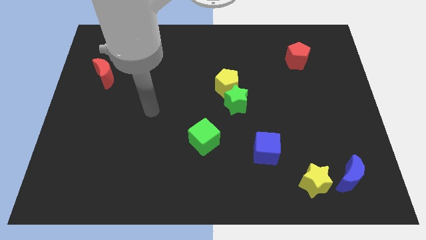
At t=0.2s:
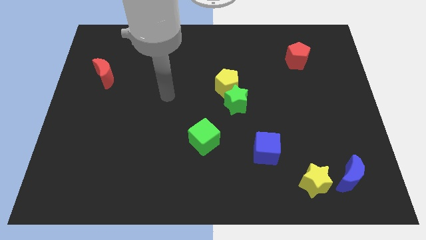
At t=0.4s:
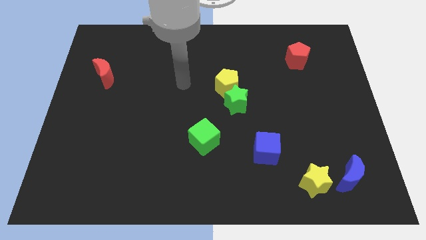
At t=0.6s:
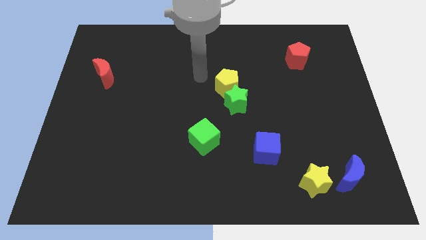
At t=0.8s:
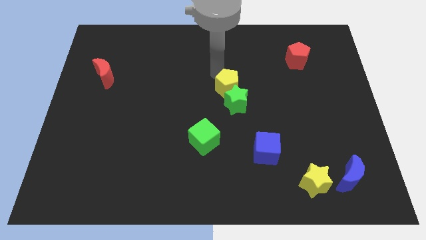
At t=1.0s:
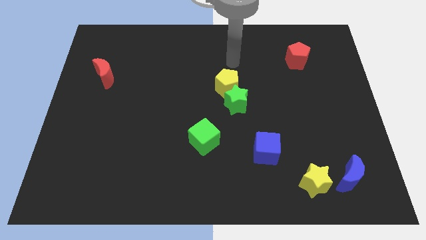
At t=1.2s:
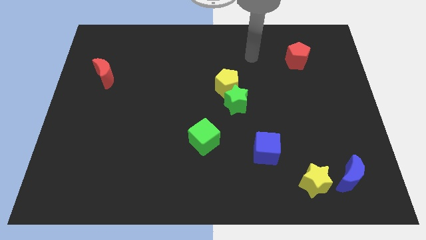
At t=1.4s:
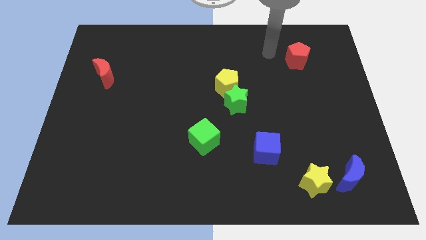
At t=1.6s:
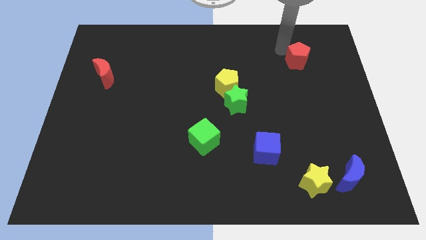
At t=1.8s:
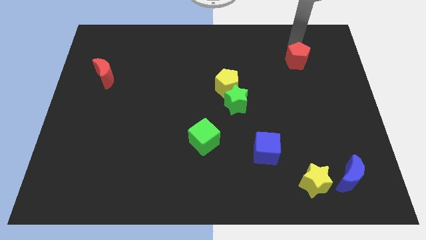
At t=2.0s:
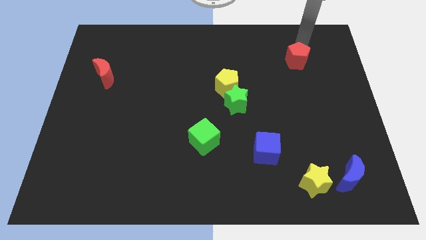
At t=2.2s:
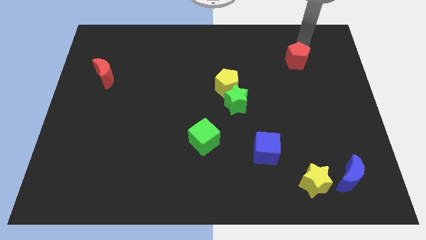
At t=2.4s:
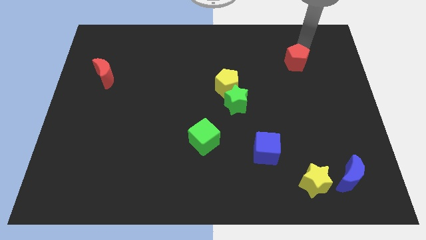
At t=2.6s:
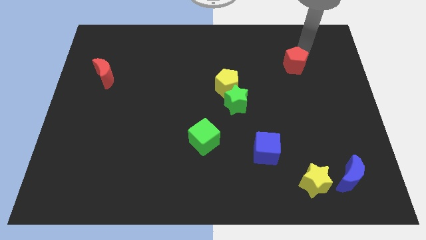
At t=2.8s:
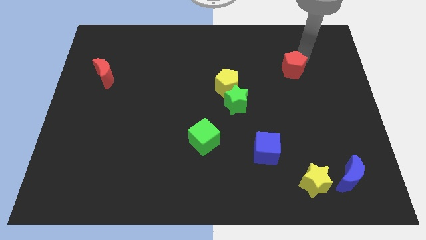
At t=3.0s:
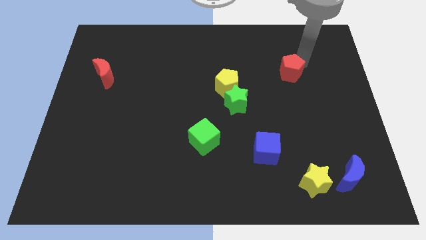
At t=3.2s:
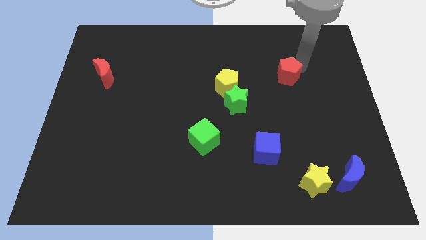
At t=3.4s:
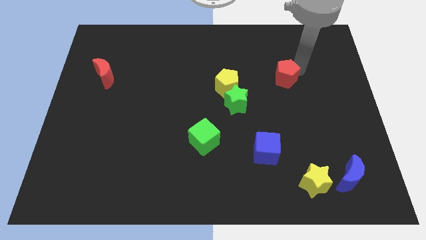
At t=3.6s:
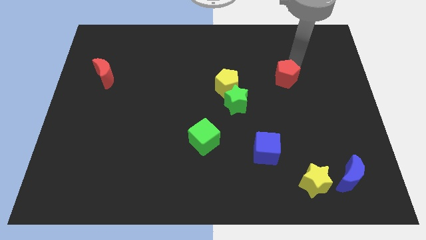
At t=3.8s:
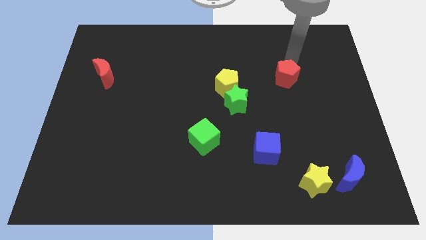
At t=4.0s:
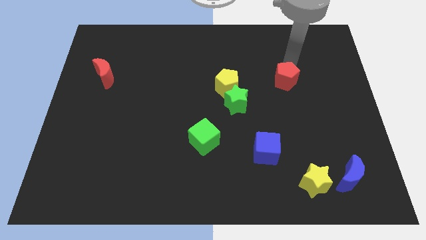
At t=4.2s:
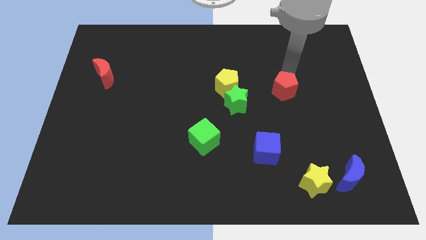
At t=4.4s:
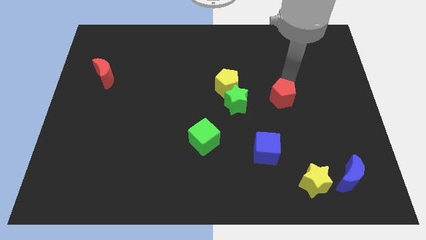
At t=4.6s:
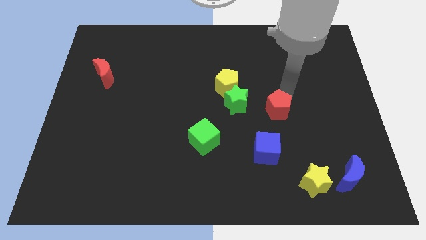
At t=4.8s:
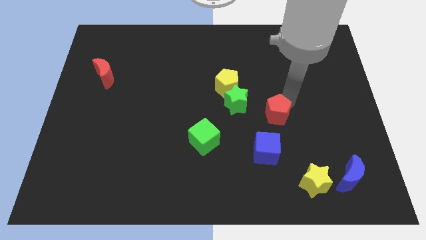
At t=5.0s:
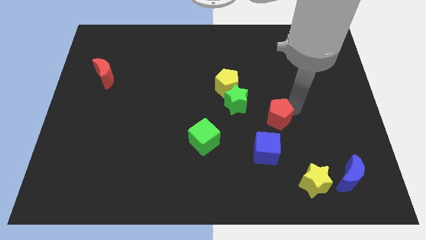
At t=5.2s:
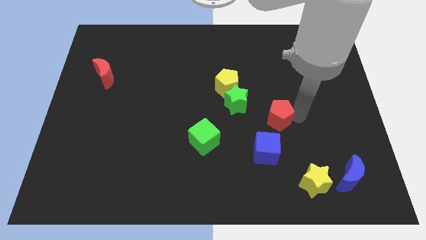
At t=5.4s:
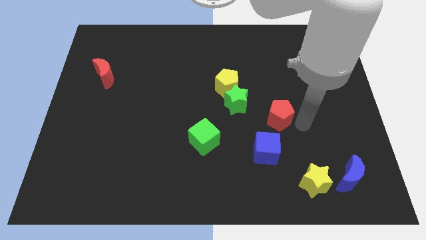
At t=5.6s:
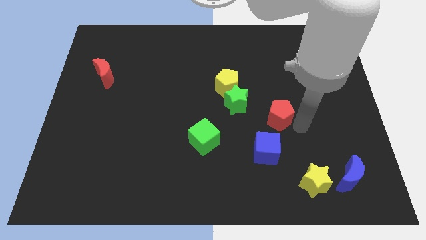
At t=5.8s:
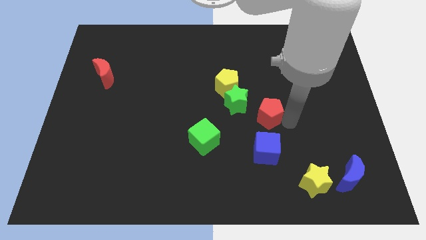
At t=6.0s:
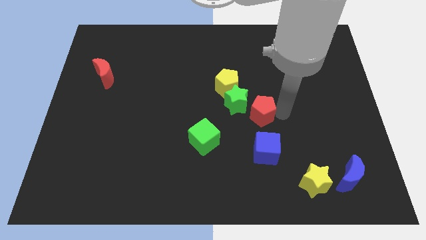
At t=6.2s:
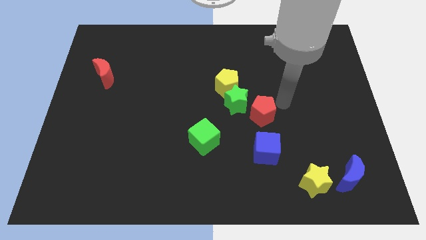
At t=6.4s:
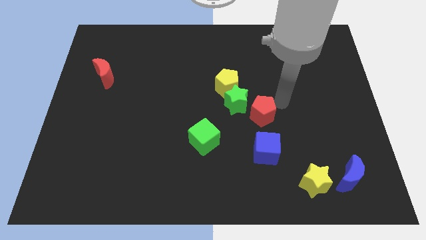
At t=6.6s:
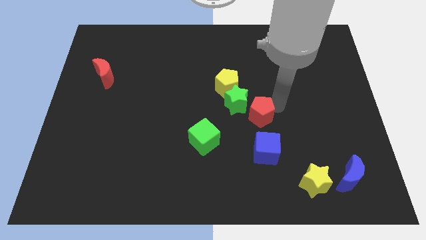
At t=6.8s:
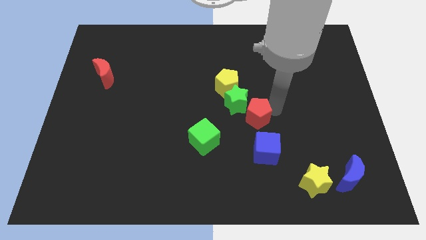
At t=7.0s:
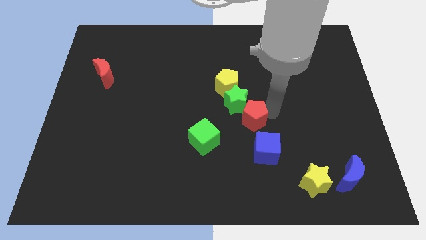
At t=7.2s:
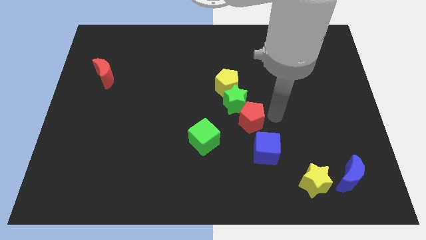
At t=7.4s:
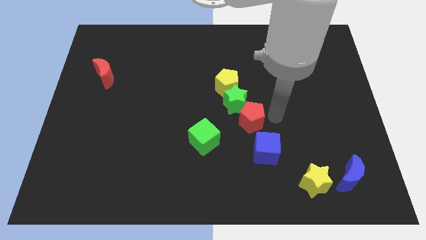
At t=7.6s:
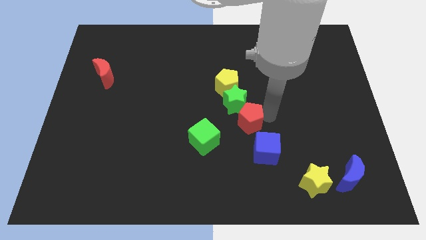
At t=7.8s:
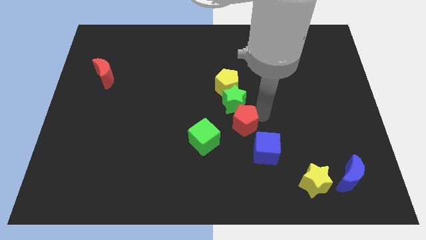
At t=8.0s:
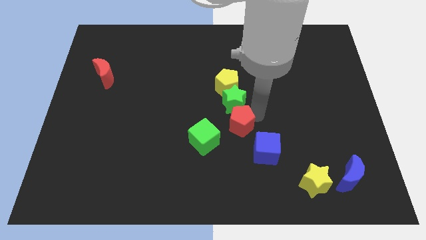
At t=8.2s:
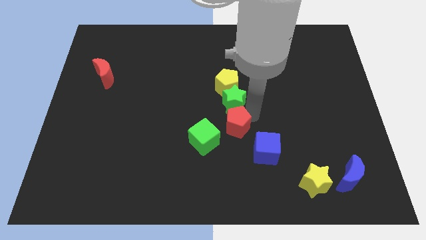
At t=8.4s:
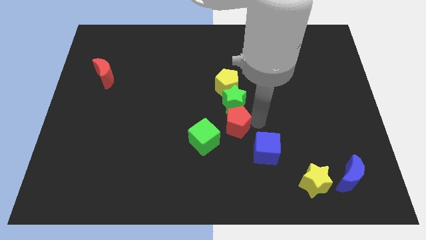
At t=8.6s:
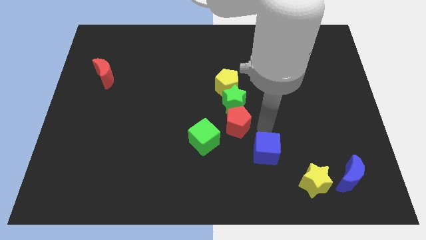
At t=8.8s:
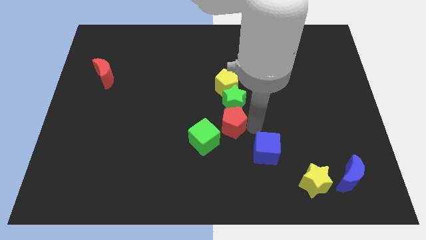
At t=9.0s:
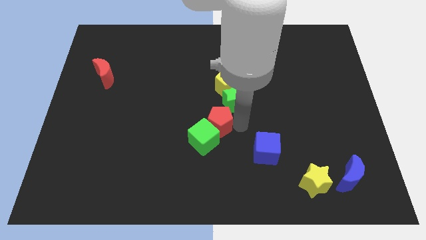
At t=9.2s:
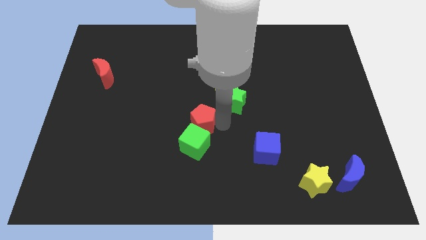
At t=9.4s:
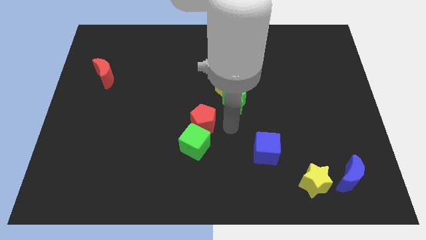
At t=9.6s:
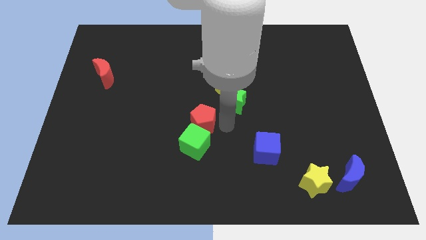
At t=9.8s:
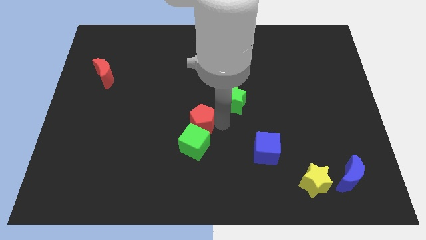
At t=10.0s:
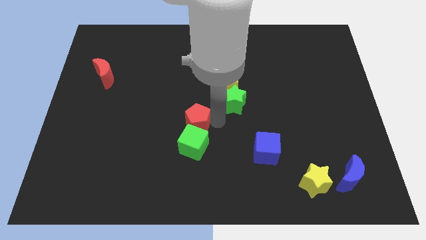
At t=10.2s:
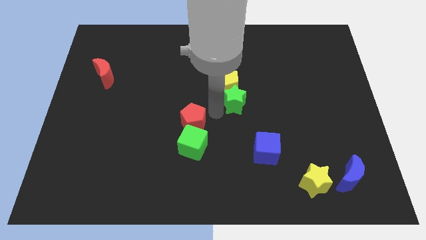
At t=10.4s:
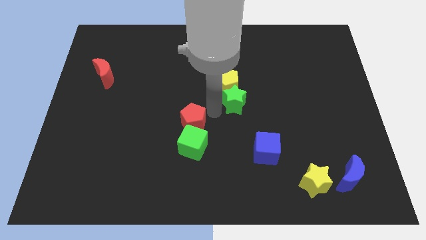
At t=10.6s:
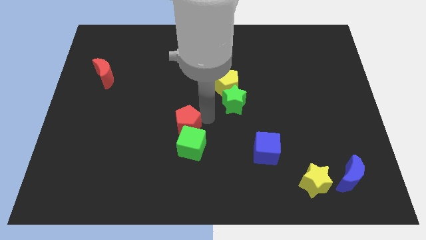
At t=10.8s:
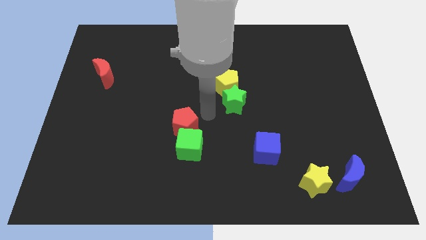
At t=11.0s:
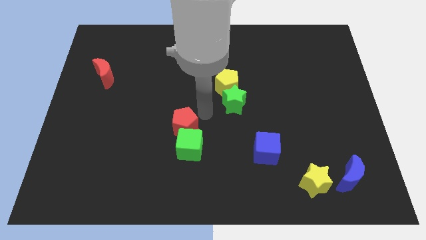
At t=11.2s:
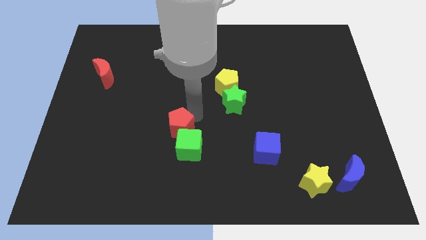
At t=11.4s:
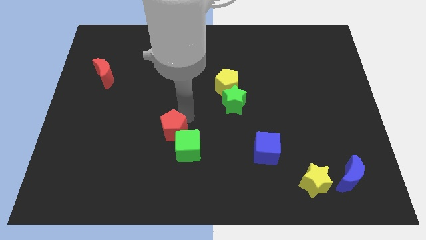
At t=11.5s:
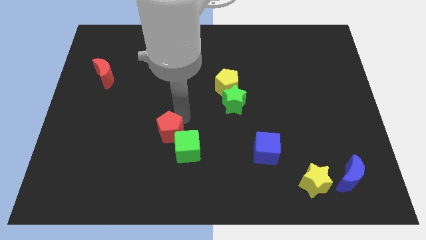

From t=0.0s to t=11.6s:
move the red pentagon left of the green cube

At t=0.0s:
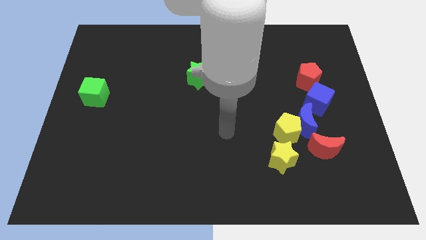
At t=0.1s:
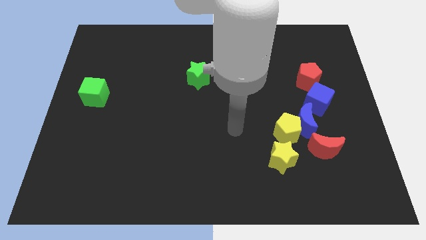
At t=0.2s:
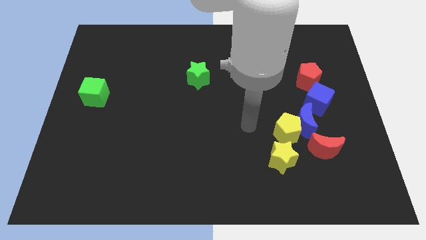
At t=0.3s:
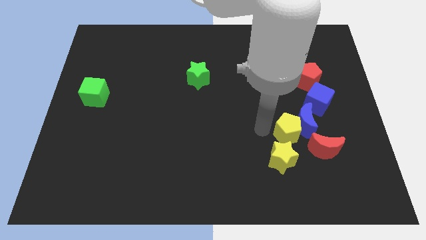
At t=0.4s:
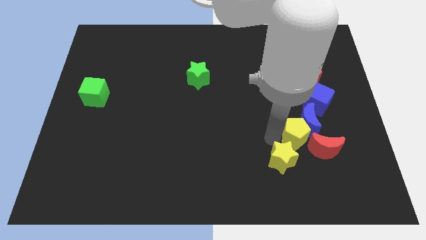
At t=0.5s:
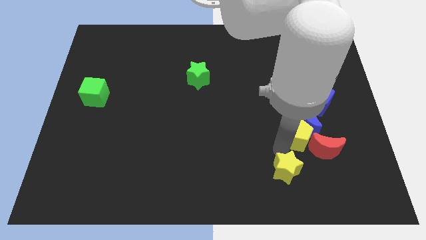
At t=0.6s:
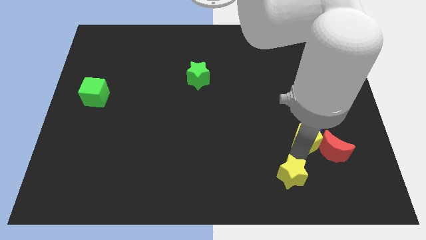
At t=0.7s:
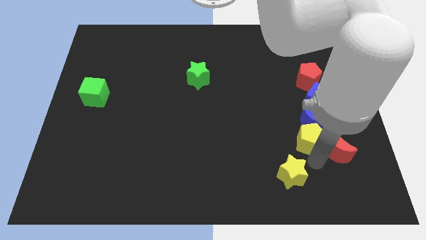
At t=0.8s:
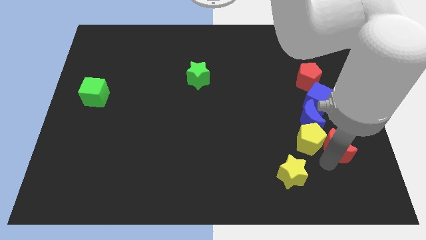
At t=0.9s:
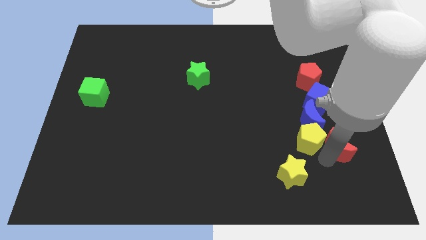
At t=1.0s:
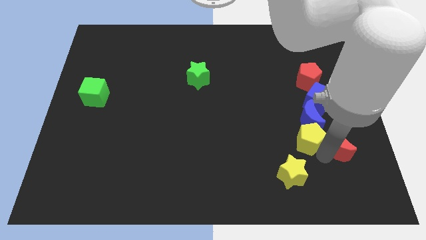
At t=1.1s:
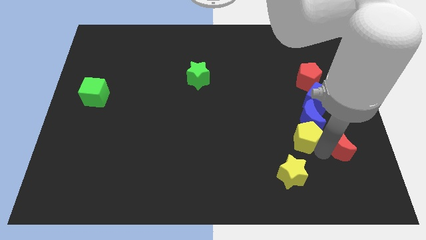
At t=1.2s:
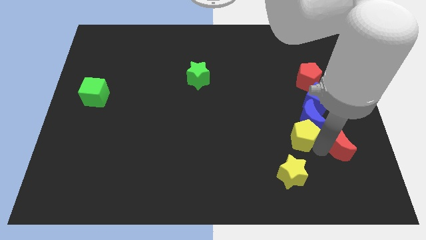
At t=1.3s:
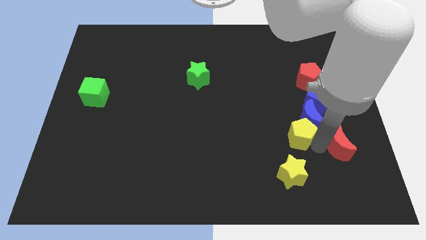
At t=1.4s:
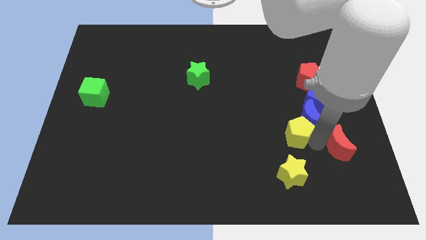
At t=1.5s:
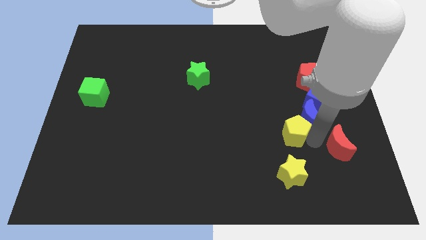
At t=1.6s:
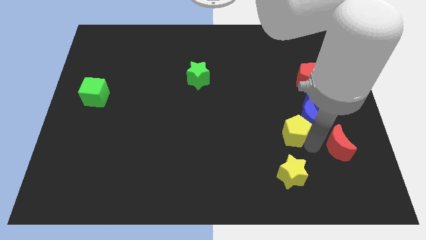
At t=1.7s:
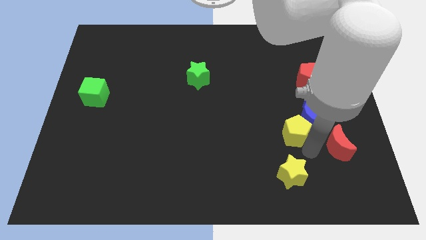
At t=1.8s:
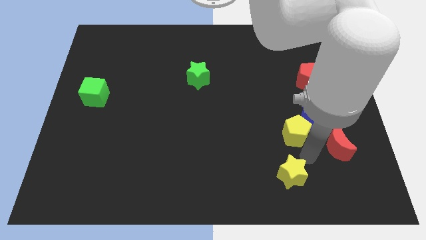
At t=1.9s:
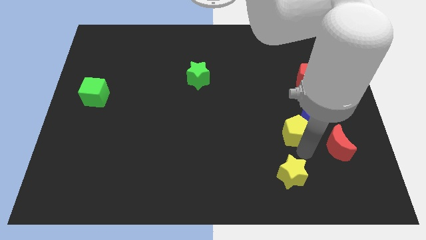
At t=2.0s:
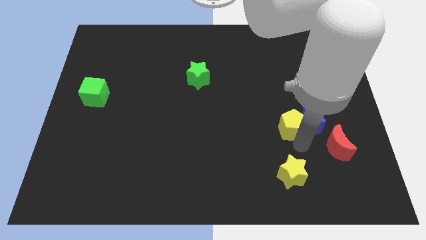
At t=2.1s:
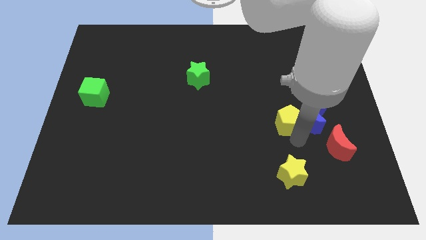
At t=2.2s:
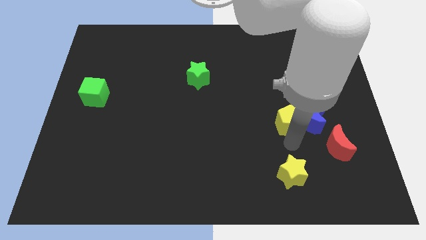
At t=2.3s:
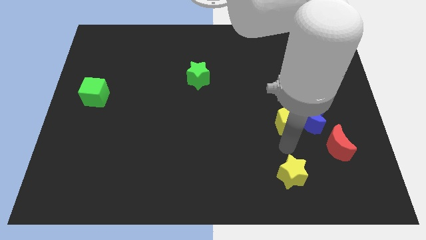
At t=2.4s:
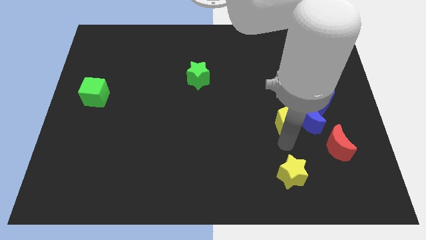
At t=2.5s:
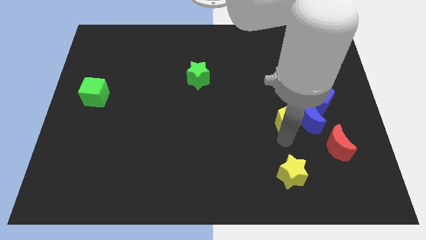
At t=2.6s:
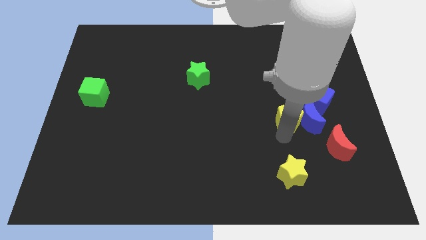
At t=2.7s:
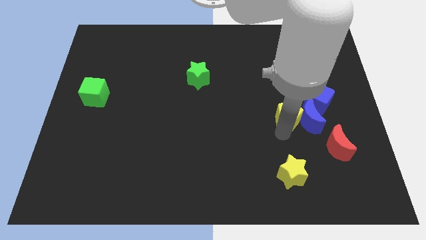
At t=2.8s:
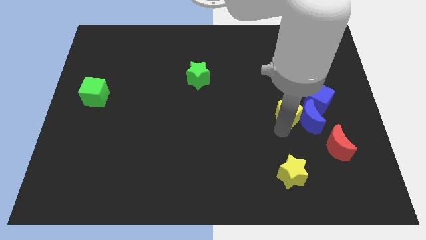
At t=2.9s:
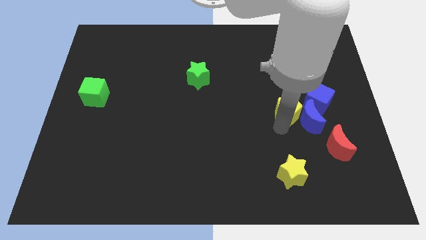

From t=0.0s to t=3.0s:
move the yellow pentagon to the bottom left of the red pentagon
